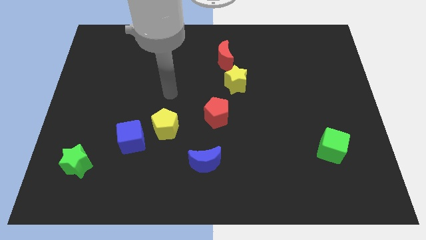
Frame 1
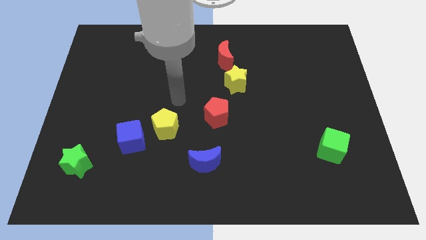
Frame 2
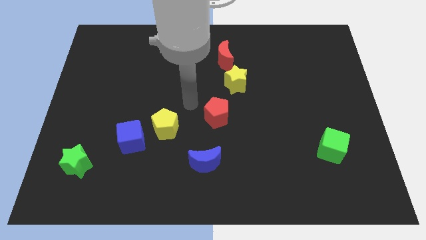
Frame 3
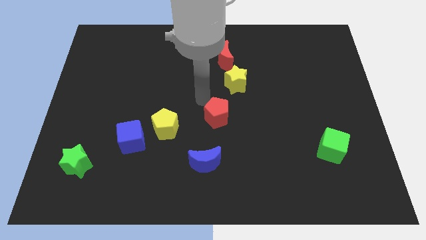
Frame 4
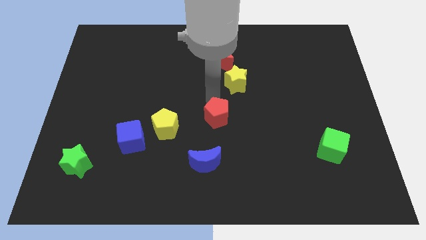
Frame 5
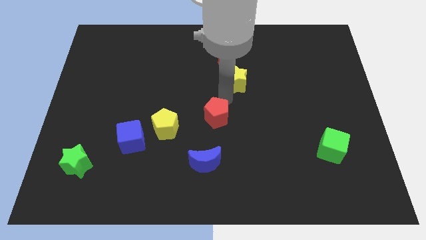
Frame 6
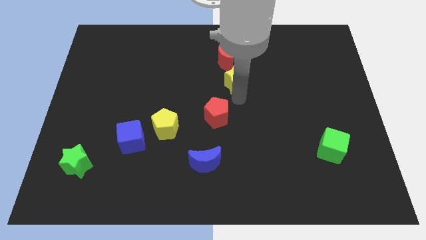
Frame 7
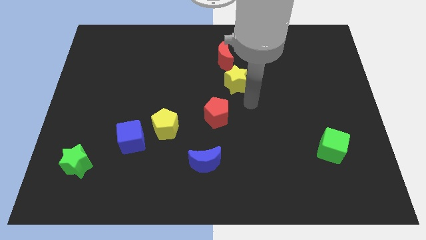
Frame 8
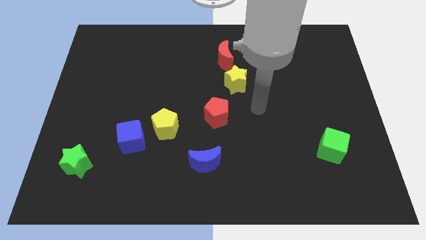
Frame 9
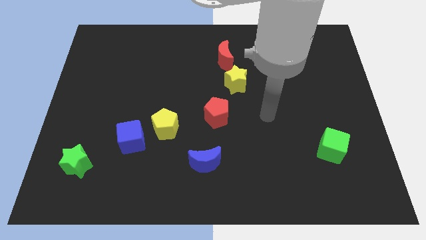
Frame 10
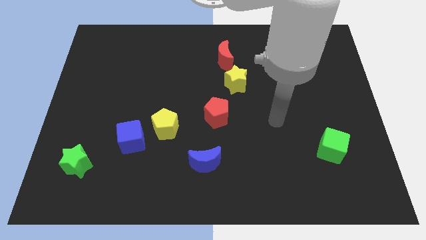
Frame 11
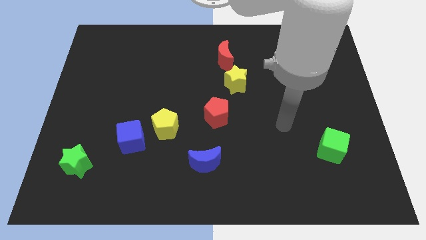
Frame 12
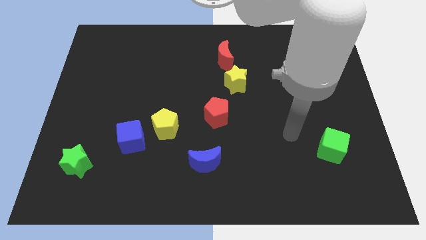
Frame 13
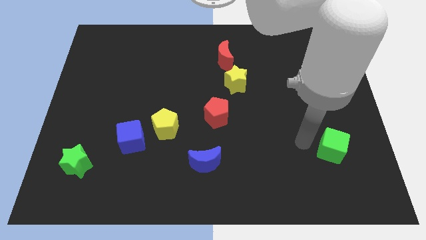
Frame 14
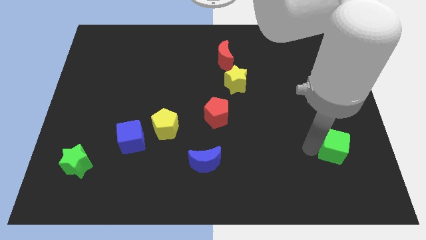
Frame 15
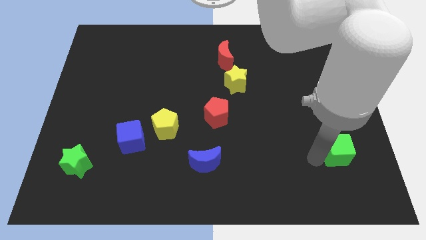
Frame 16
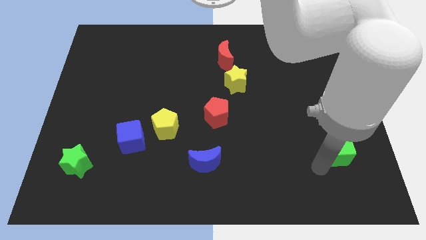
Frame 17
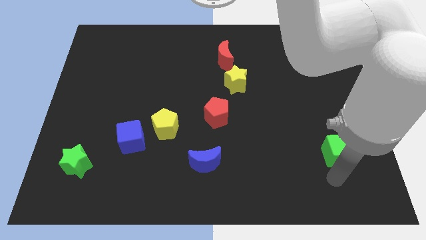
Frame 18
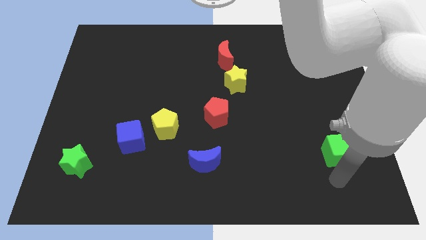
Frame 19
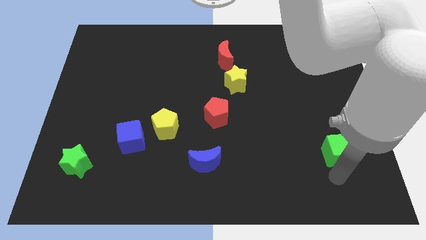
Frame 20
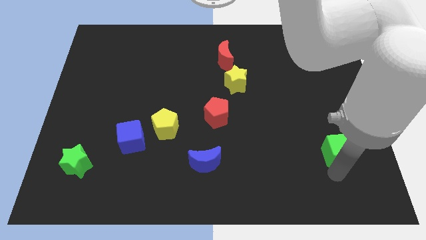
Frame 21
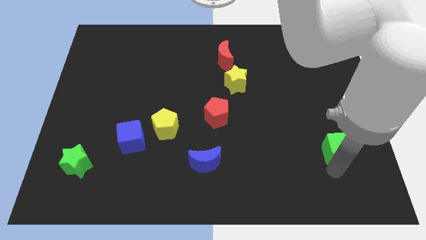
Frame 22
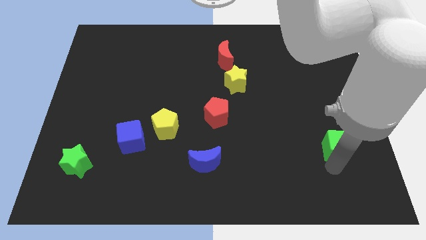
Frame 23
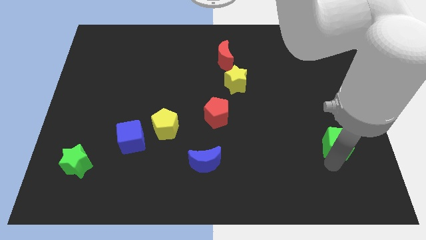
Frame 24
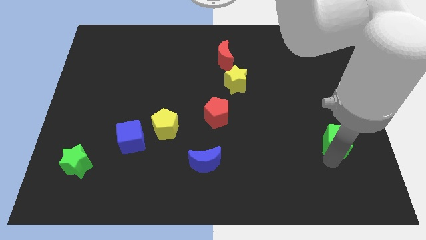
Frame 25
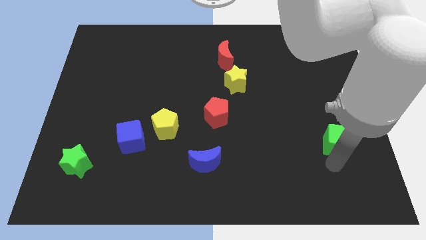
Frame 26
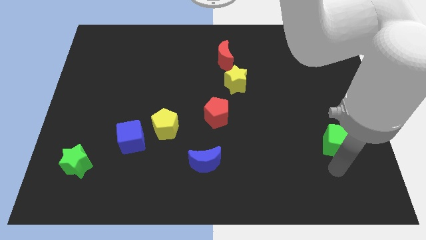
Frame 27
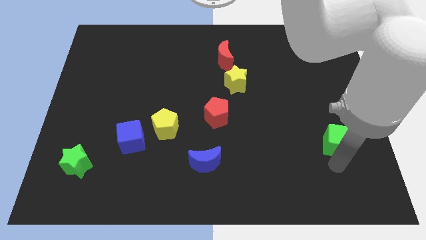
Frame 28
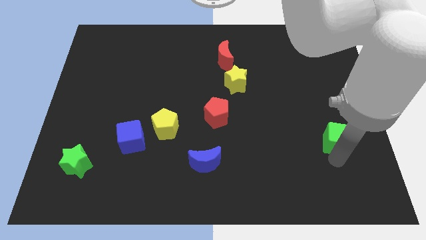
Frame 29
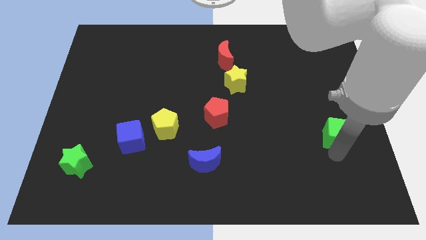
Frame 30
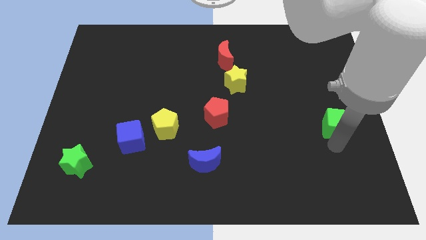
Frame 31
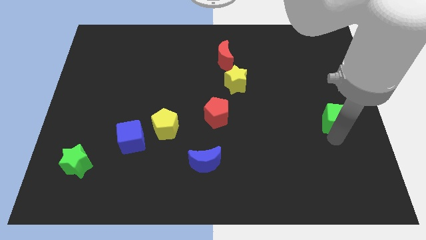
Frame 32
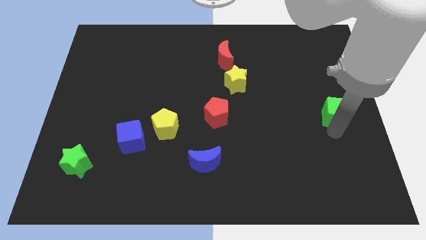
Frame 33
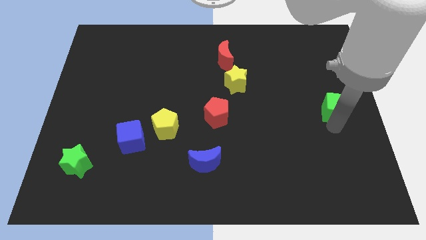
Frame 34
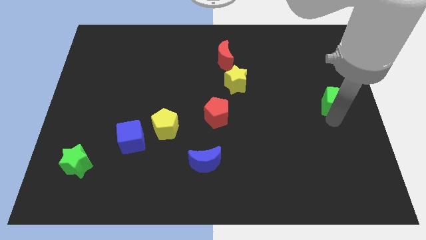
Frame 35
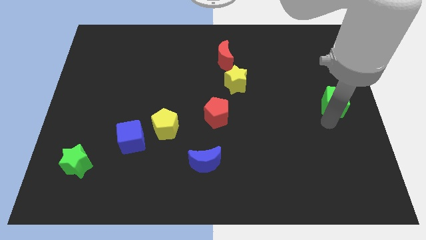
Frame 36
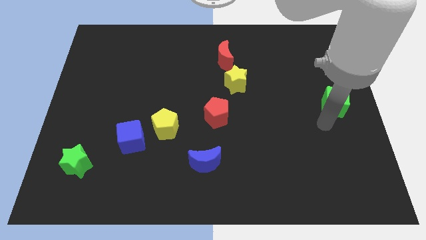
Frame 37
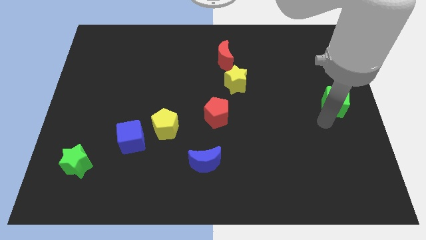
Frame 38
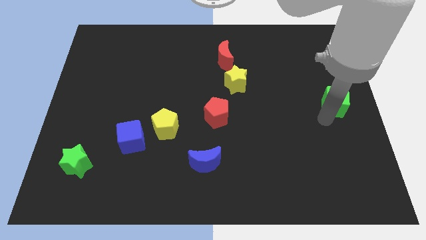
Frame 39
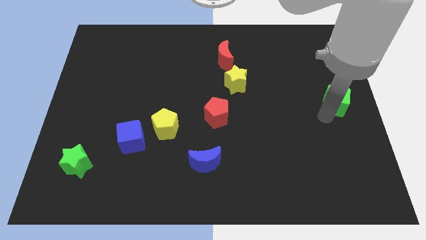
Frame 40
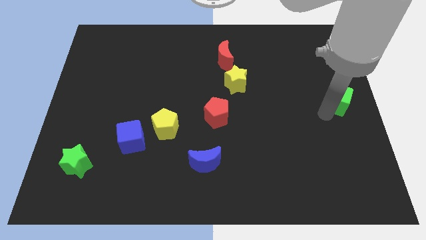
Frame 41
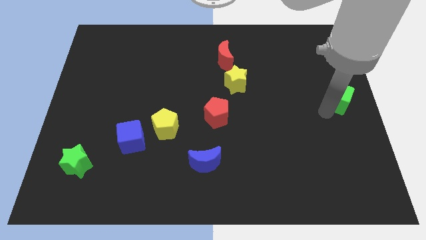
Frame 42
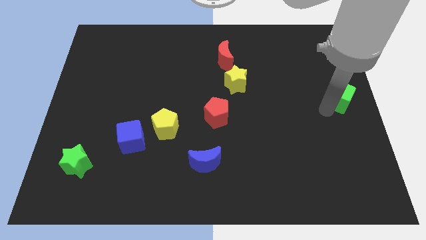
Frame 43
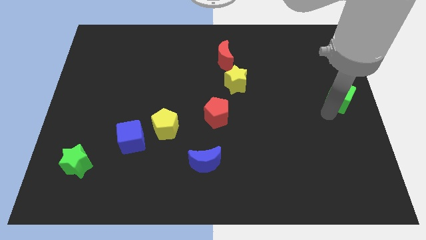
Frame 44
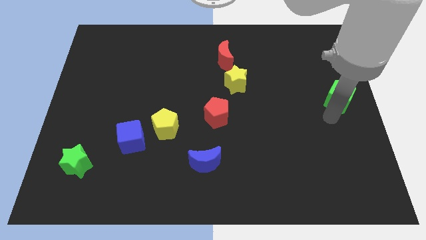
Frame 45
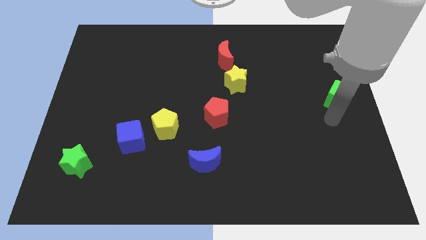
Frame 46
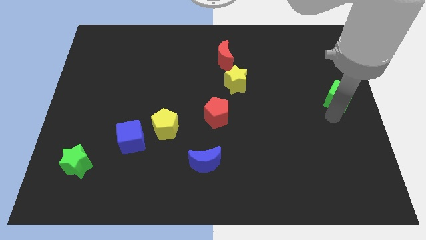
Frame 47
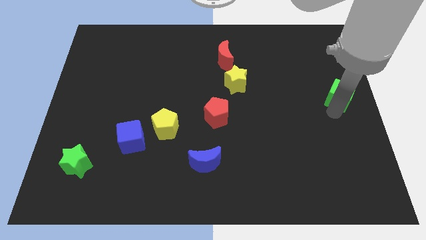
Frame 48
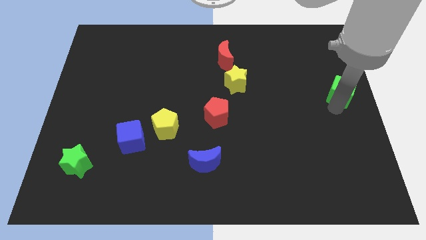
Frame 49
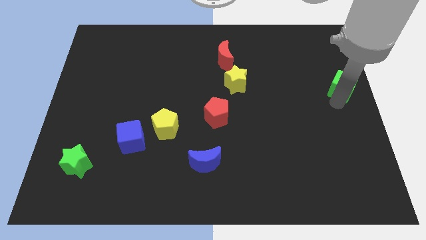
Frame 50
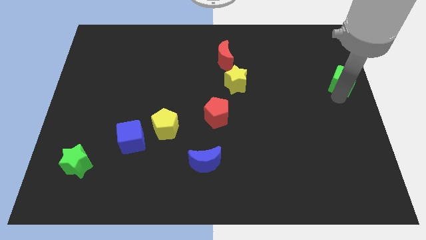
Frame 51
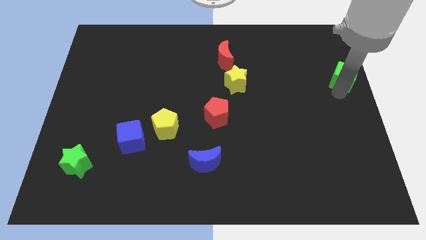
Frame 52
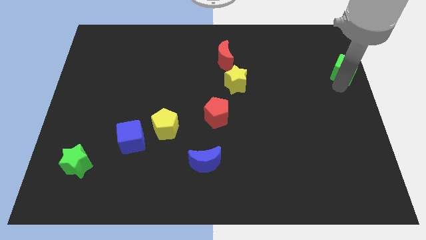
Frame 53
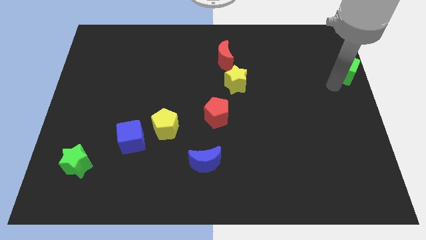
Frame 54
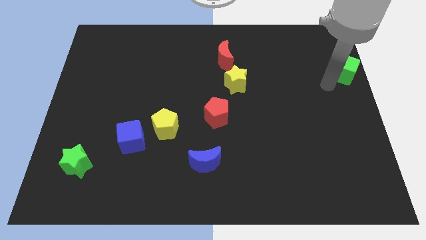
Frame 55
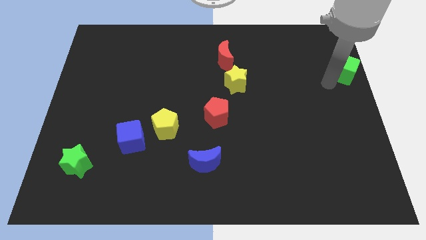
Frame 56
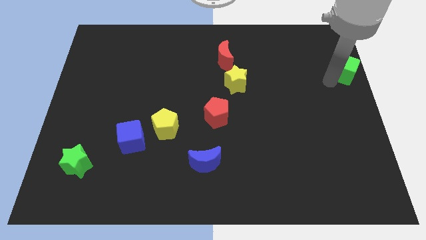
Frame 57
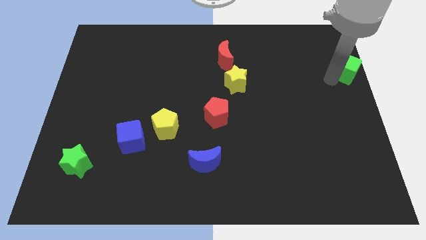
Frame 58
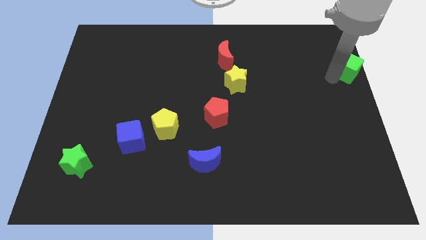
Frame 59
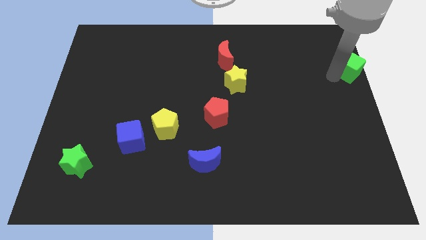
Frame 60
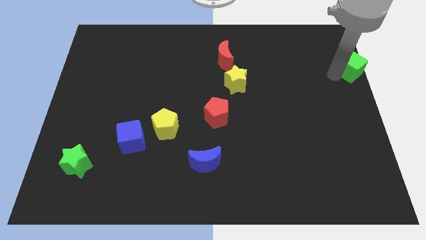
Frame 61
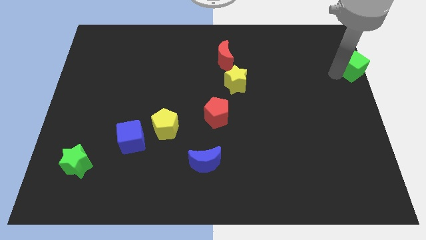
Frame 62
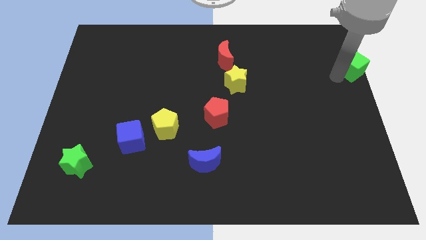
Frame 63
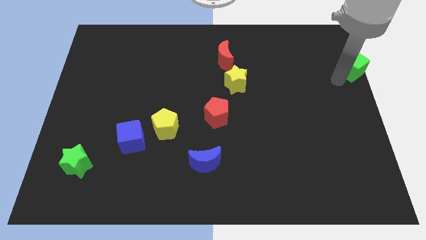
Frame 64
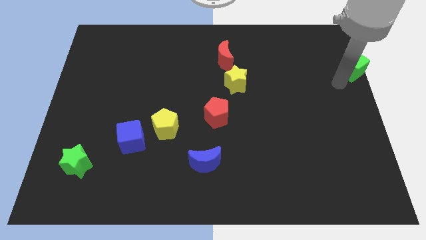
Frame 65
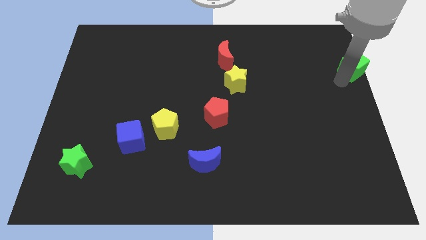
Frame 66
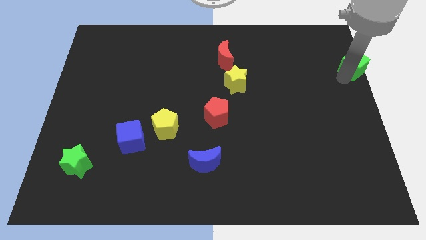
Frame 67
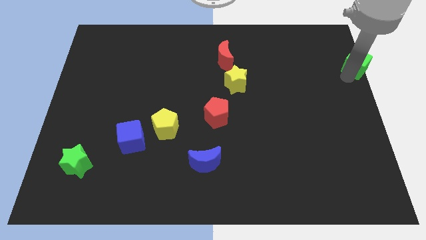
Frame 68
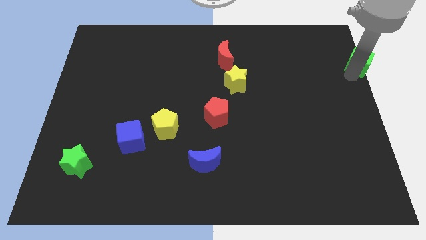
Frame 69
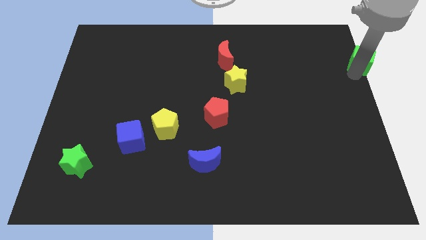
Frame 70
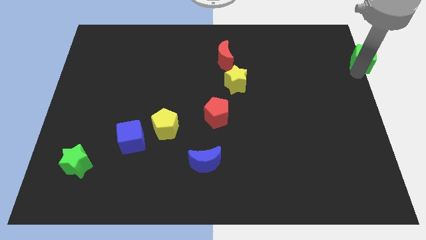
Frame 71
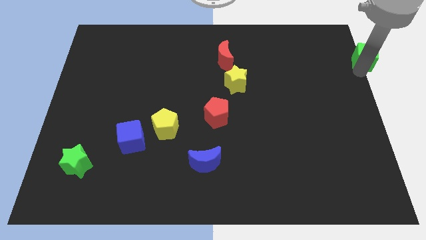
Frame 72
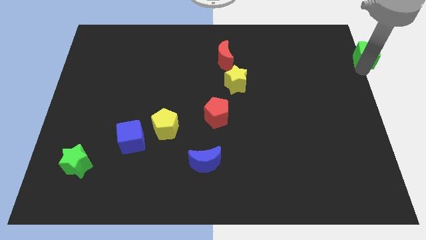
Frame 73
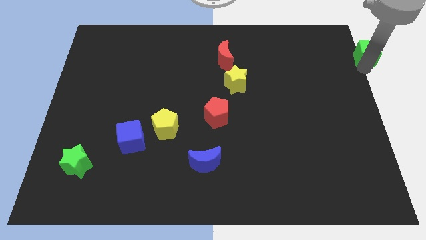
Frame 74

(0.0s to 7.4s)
put the green cube to the top right of the board
